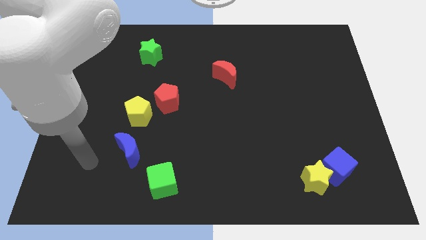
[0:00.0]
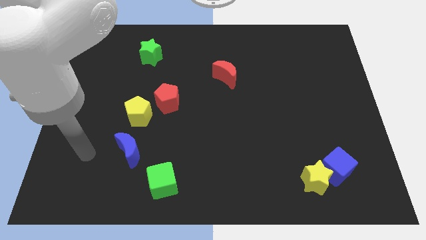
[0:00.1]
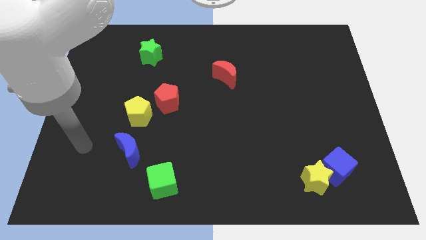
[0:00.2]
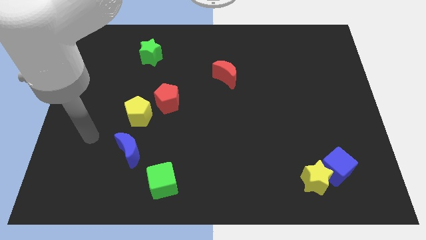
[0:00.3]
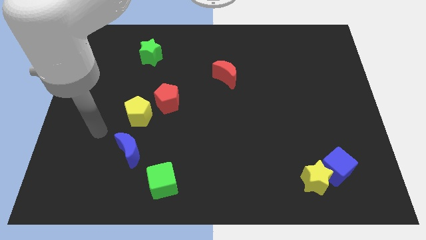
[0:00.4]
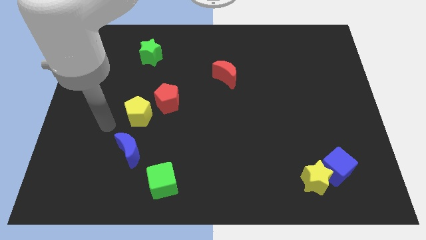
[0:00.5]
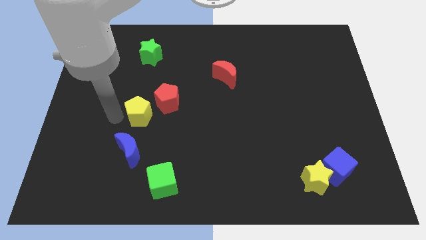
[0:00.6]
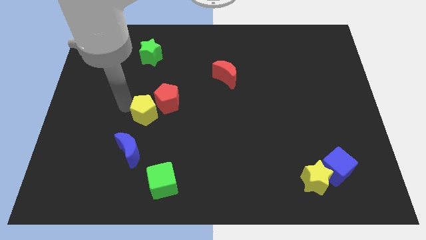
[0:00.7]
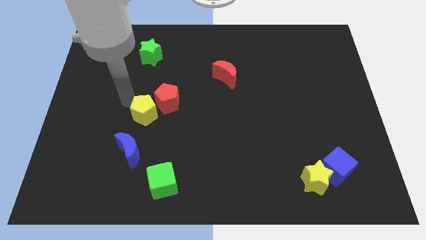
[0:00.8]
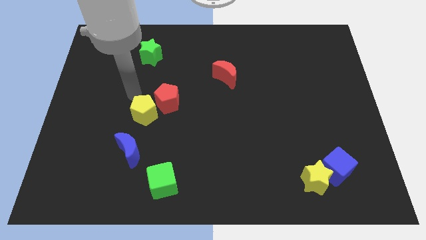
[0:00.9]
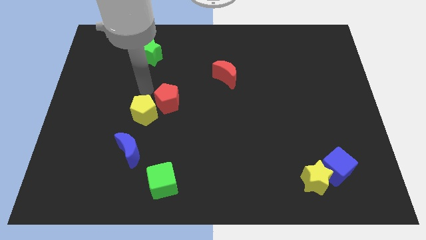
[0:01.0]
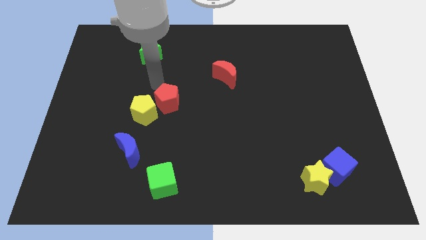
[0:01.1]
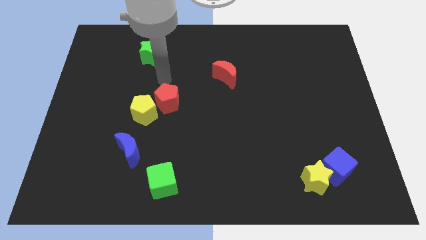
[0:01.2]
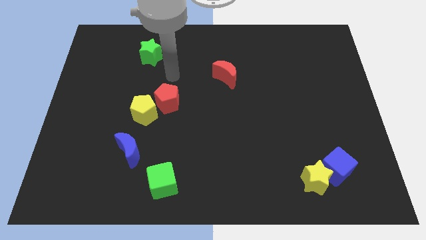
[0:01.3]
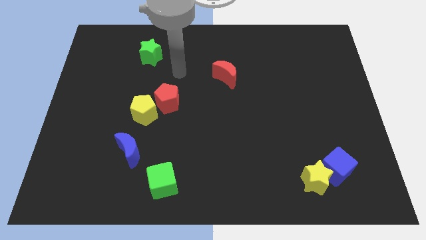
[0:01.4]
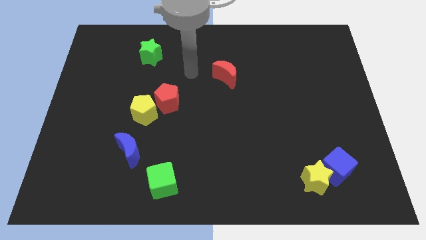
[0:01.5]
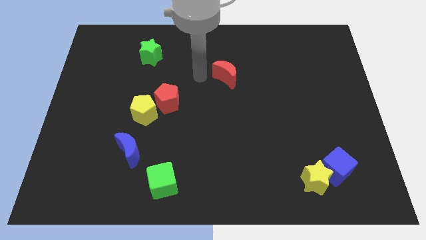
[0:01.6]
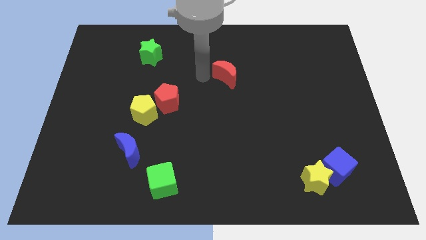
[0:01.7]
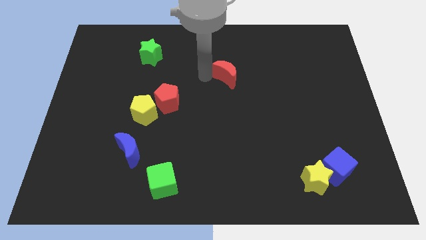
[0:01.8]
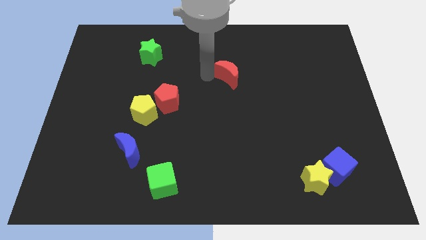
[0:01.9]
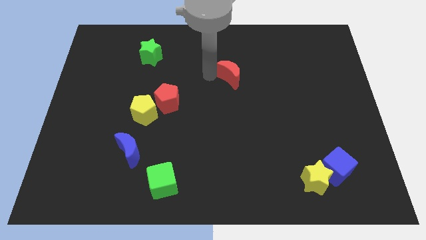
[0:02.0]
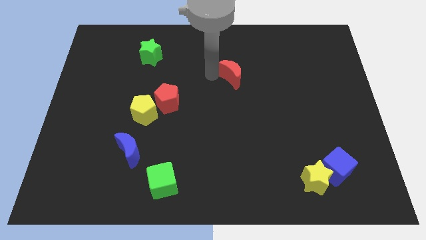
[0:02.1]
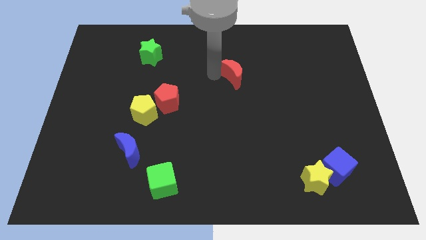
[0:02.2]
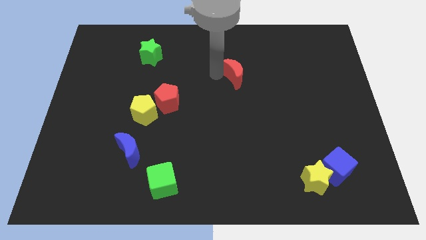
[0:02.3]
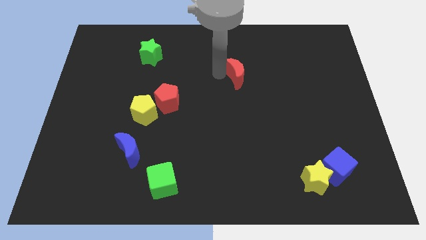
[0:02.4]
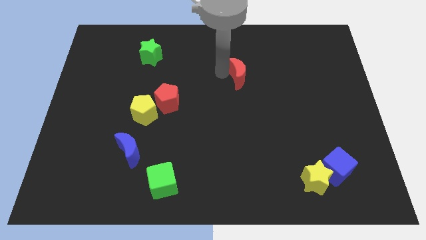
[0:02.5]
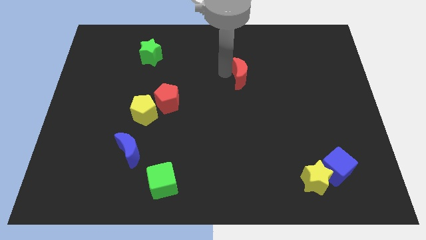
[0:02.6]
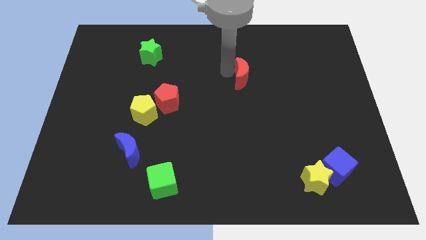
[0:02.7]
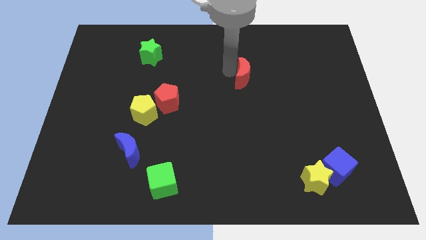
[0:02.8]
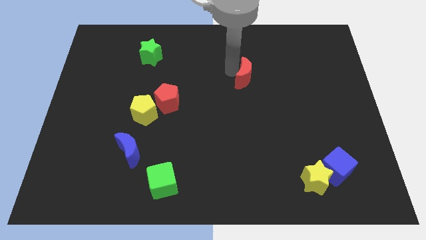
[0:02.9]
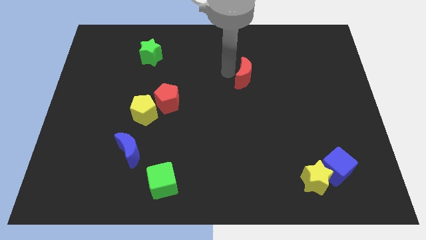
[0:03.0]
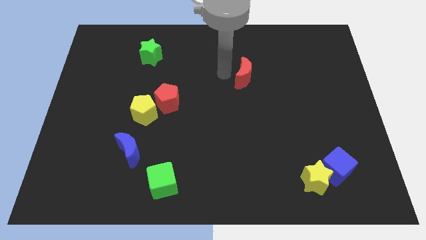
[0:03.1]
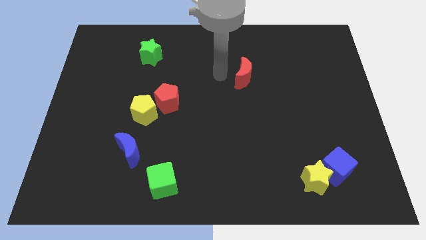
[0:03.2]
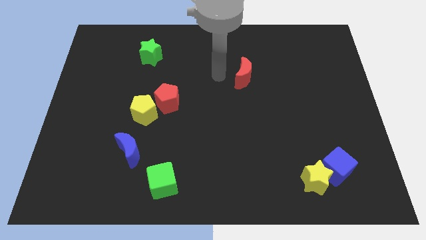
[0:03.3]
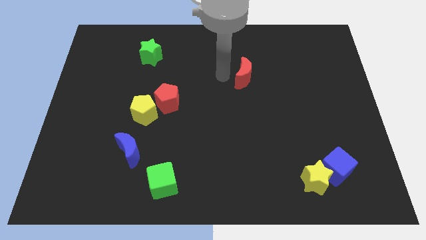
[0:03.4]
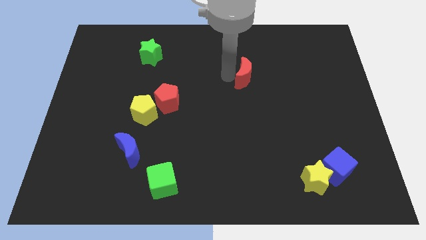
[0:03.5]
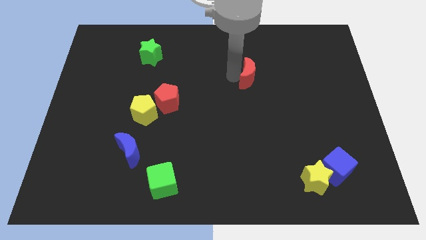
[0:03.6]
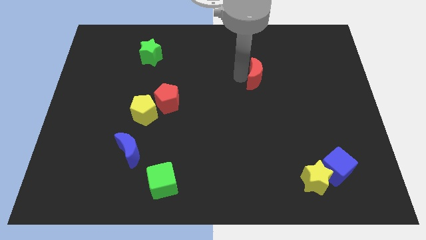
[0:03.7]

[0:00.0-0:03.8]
push the red moon a bit right

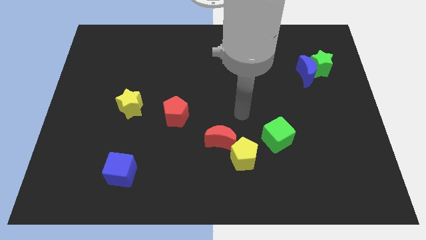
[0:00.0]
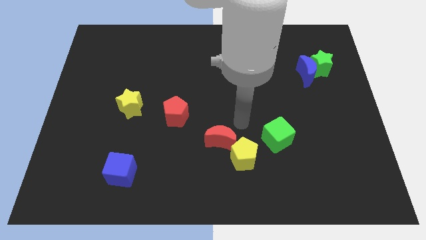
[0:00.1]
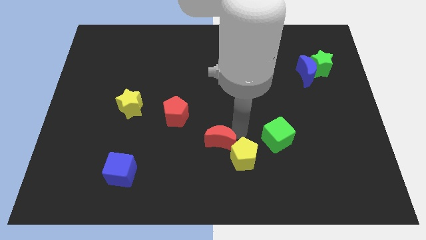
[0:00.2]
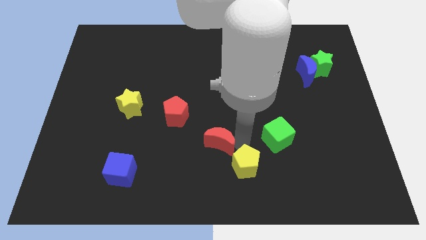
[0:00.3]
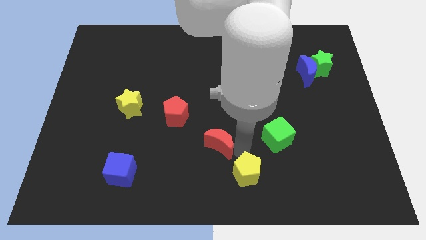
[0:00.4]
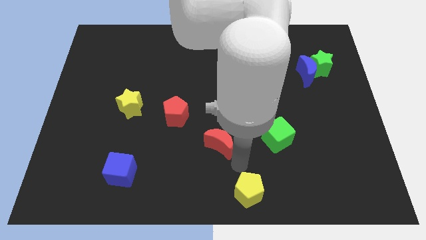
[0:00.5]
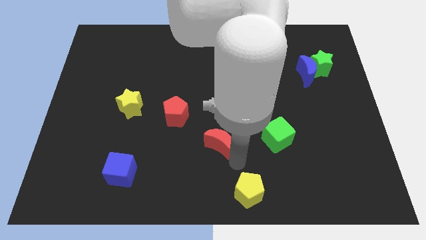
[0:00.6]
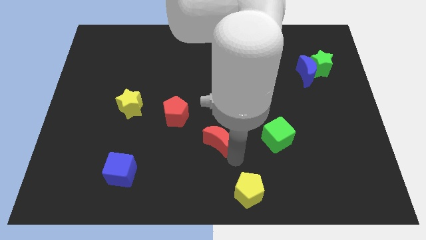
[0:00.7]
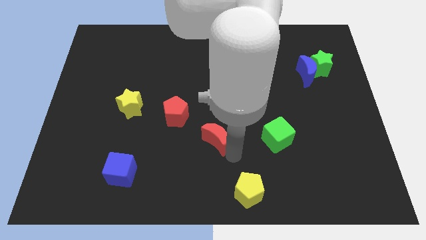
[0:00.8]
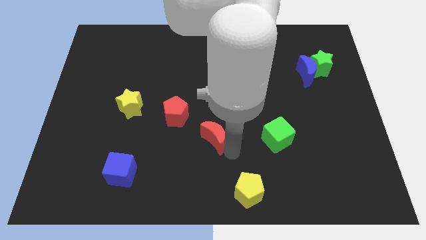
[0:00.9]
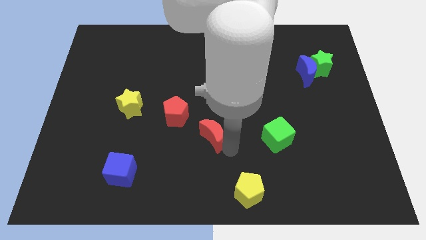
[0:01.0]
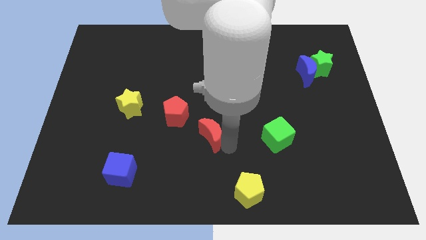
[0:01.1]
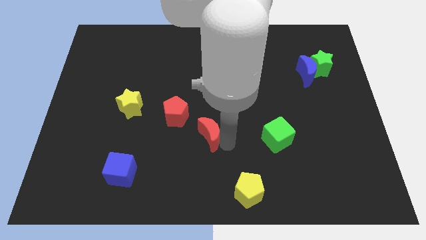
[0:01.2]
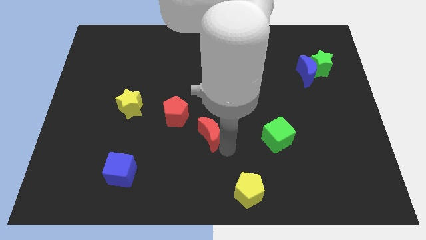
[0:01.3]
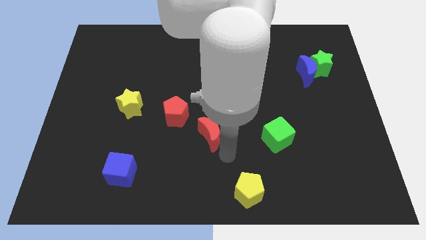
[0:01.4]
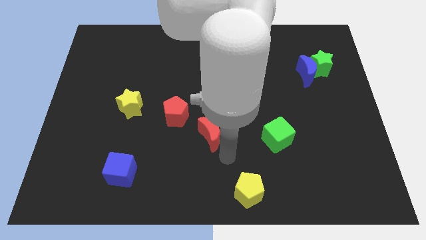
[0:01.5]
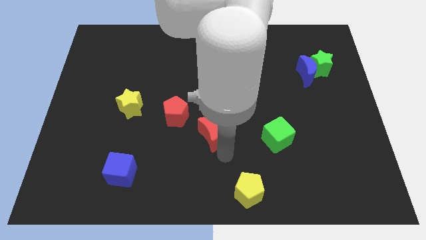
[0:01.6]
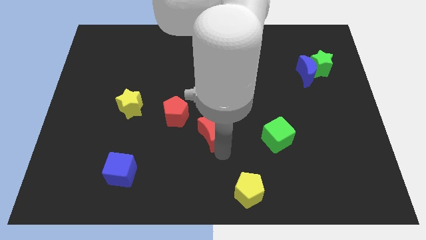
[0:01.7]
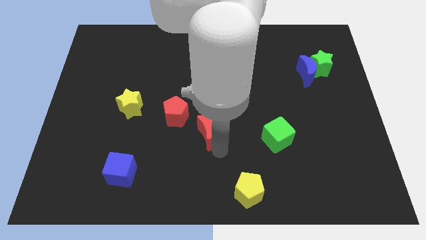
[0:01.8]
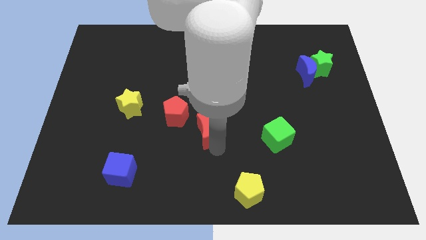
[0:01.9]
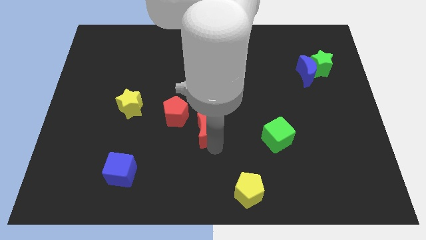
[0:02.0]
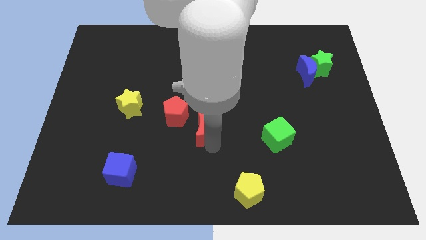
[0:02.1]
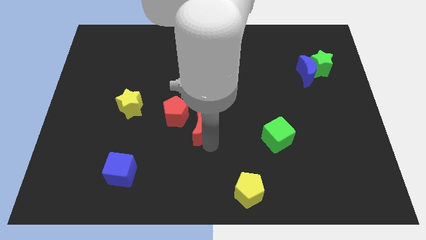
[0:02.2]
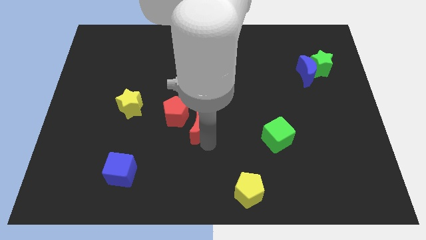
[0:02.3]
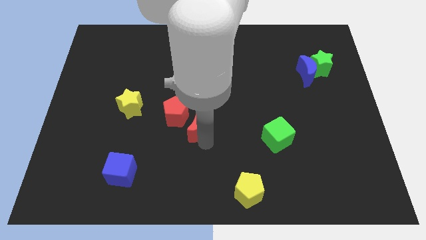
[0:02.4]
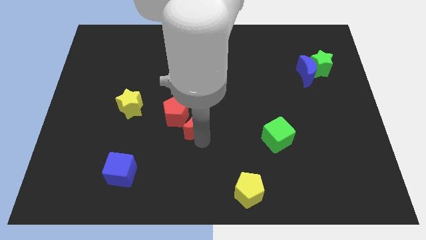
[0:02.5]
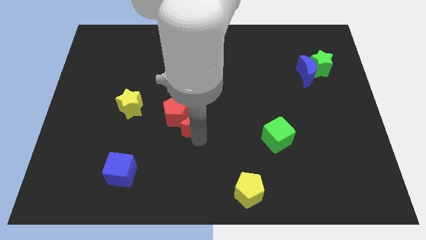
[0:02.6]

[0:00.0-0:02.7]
slide the red moon a little bit diagonally up and to the left

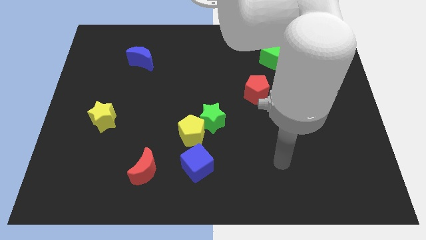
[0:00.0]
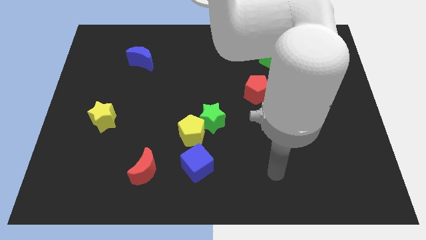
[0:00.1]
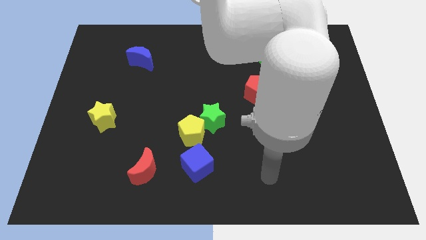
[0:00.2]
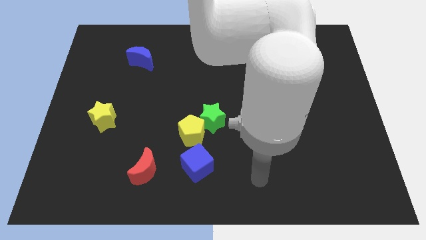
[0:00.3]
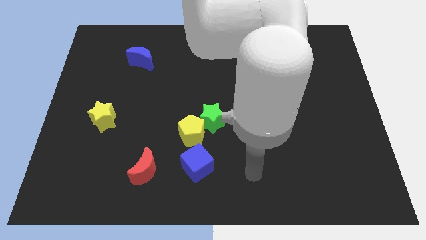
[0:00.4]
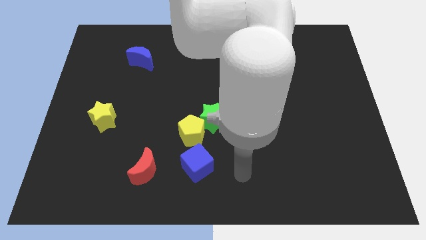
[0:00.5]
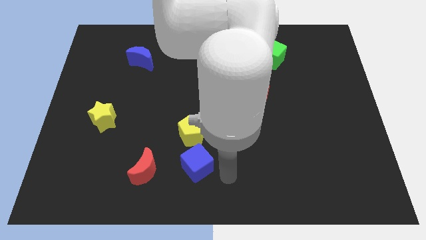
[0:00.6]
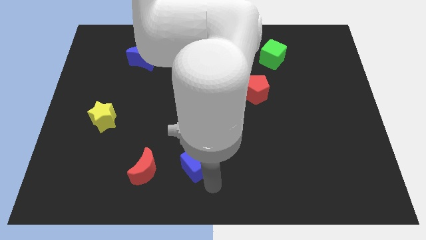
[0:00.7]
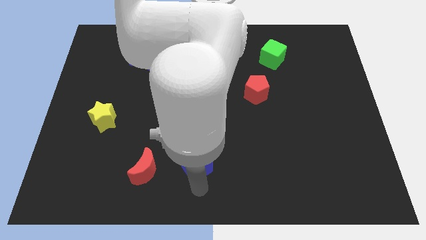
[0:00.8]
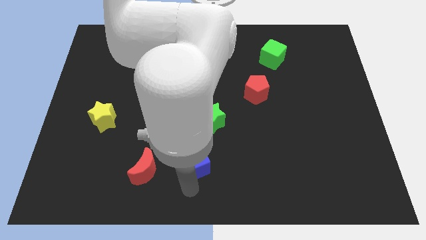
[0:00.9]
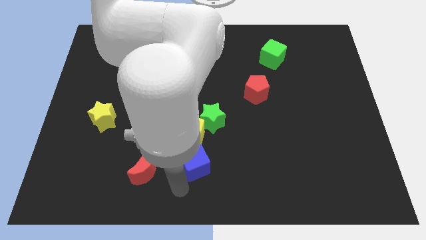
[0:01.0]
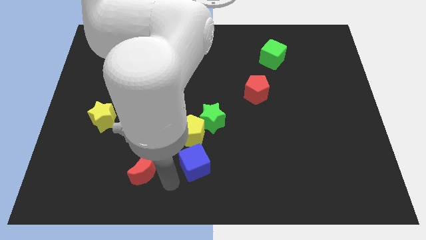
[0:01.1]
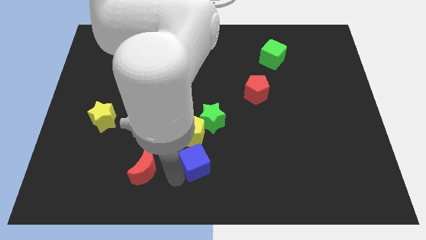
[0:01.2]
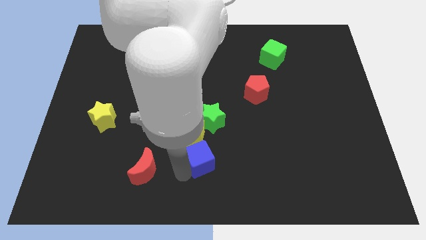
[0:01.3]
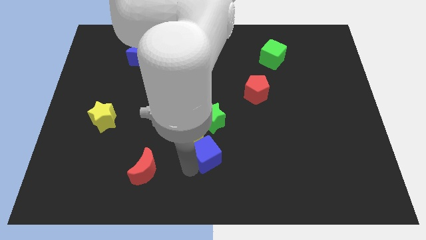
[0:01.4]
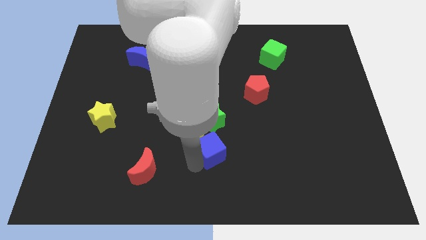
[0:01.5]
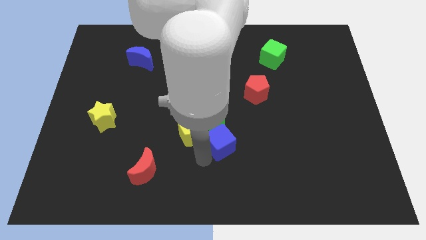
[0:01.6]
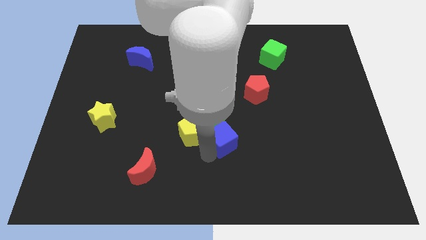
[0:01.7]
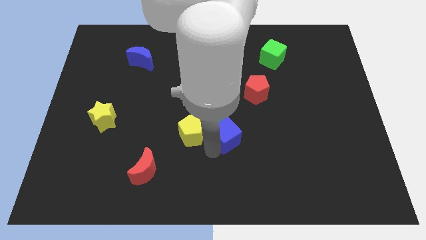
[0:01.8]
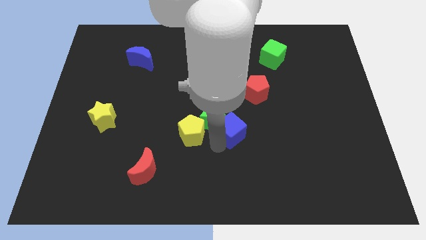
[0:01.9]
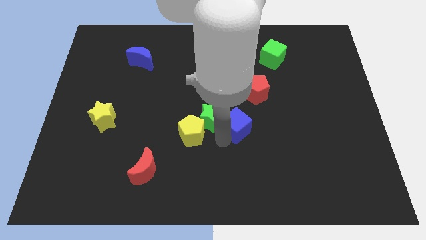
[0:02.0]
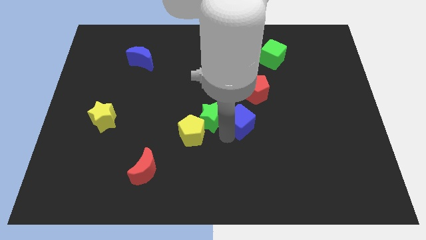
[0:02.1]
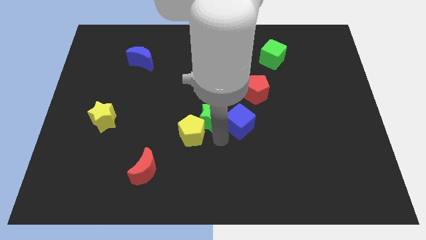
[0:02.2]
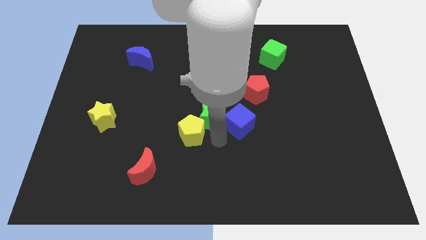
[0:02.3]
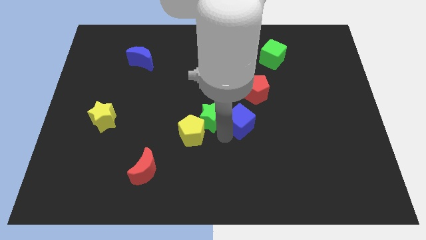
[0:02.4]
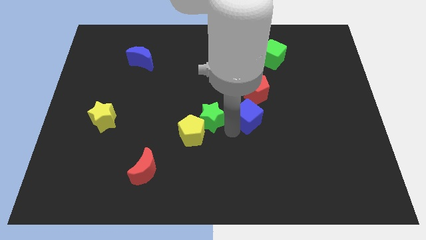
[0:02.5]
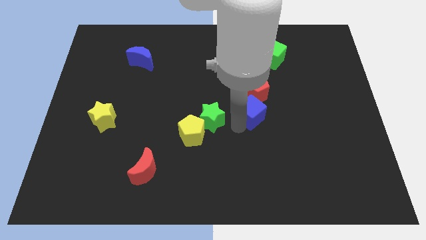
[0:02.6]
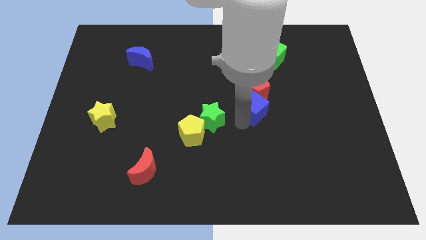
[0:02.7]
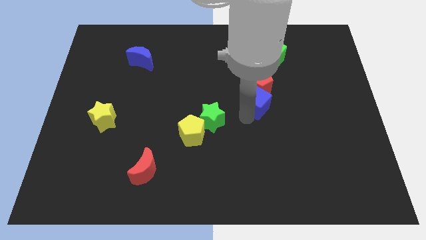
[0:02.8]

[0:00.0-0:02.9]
push the blue cube up and right diagonally
